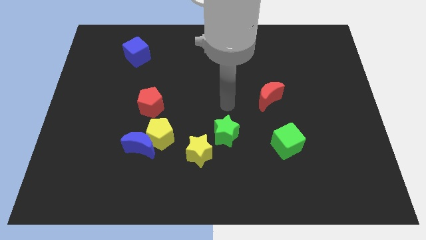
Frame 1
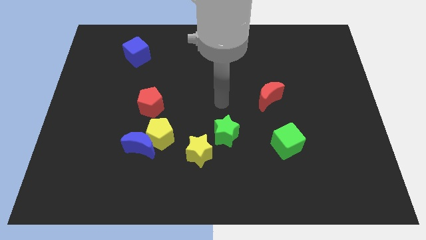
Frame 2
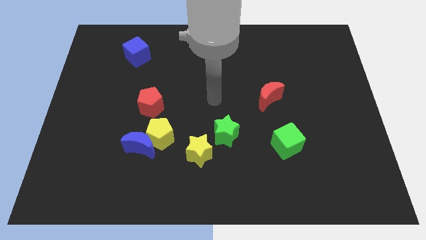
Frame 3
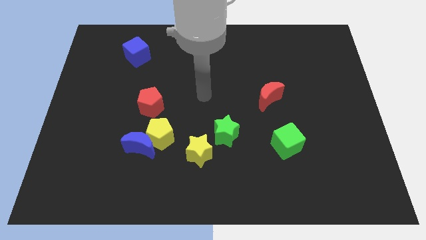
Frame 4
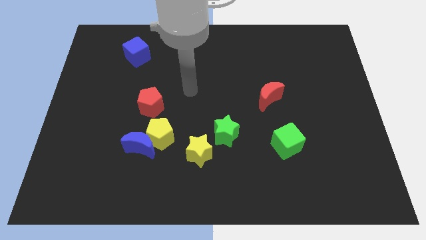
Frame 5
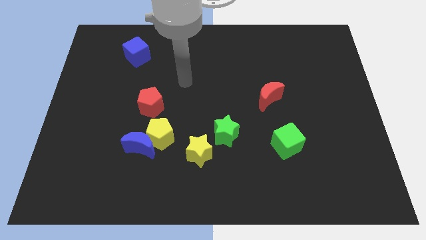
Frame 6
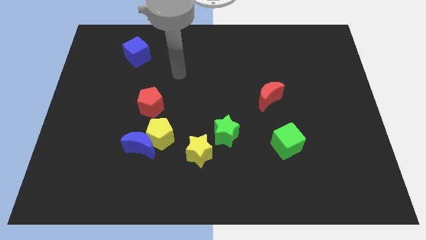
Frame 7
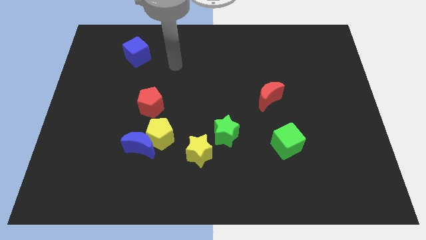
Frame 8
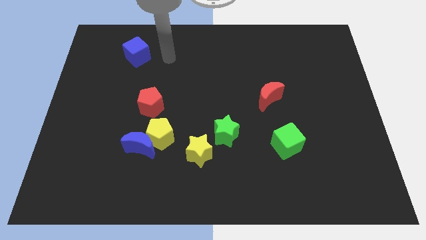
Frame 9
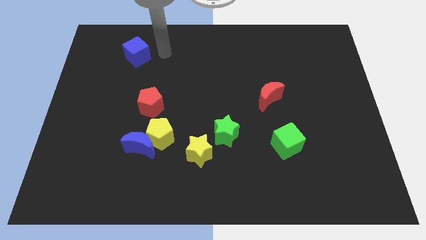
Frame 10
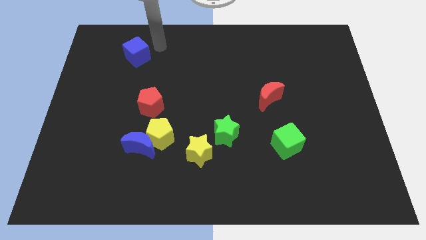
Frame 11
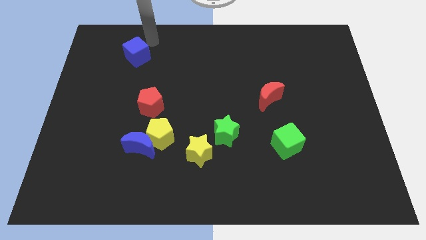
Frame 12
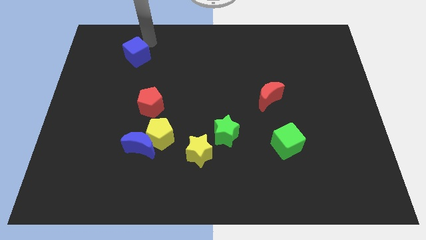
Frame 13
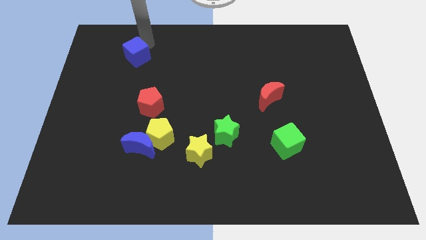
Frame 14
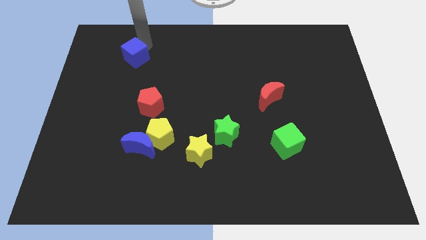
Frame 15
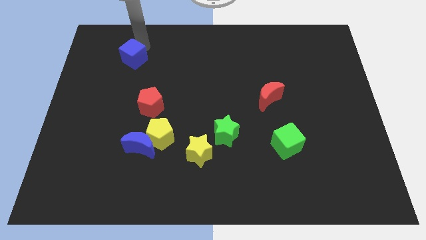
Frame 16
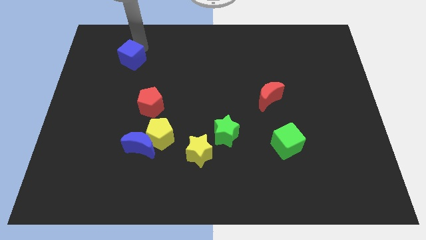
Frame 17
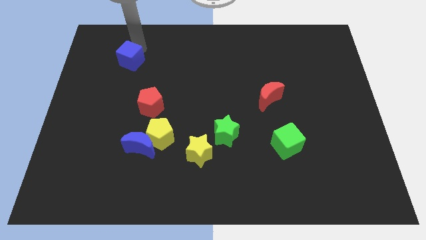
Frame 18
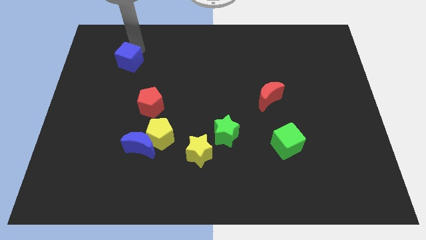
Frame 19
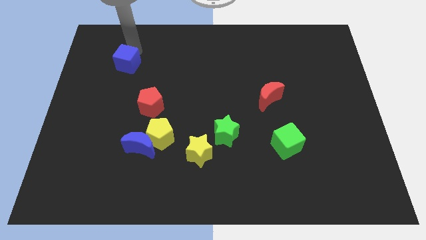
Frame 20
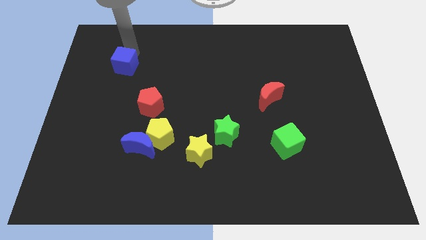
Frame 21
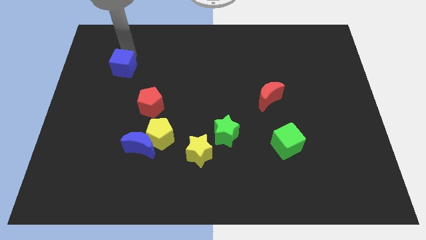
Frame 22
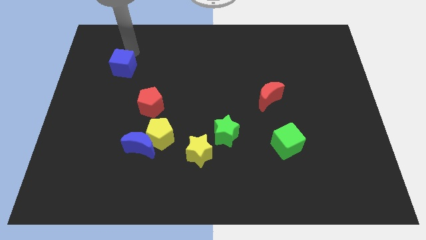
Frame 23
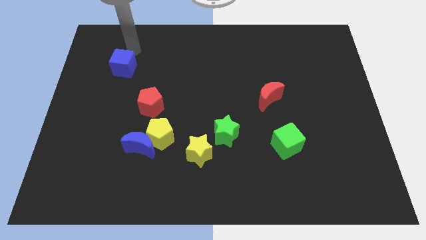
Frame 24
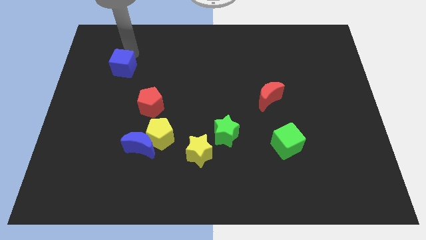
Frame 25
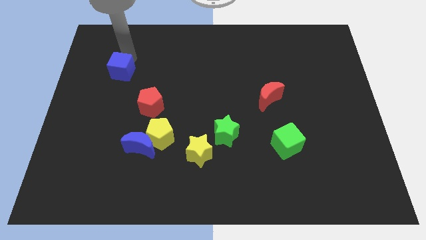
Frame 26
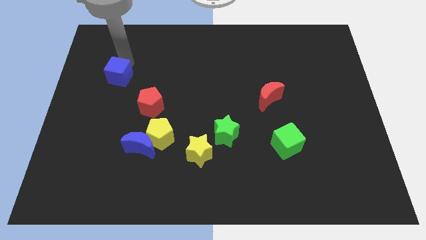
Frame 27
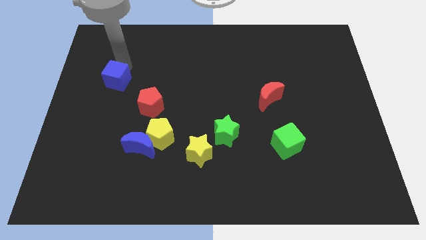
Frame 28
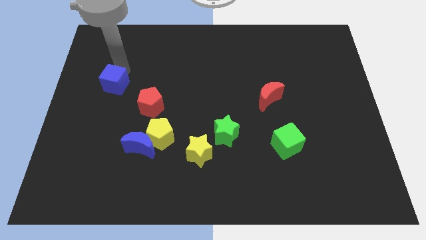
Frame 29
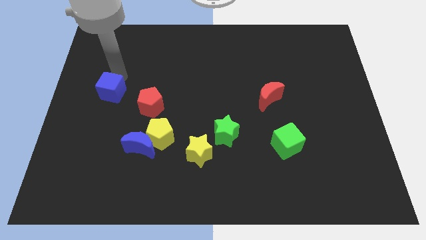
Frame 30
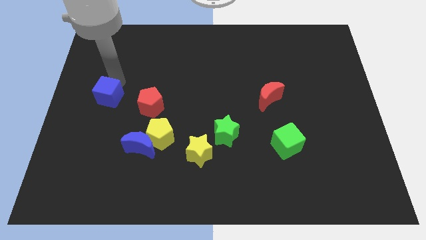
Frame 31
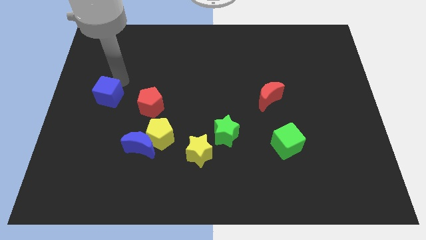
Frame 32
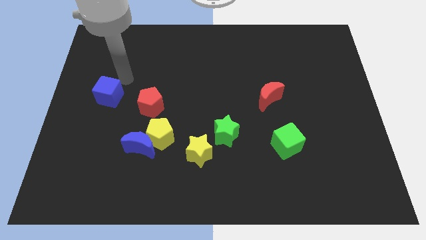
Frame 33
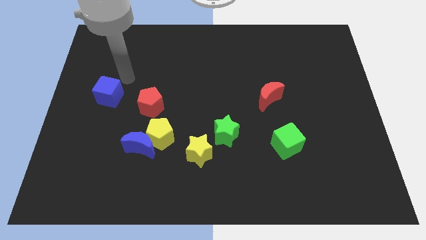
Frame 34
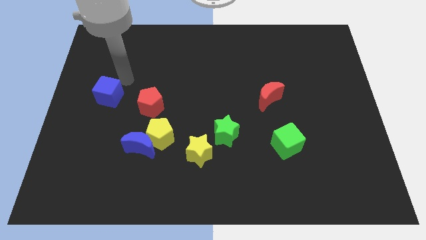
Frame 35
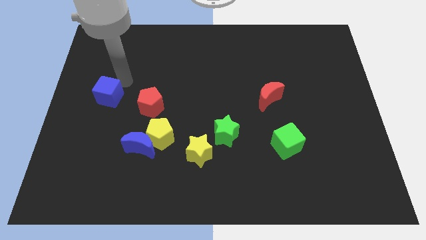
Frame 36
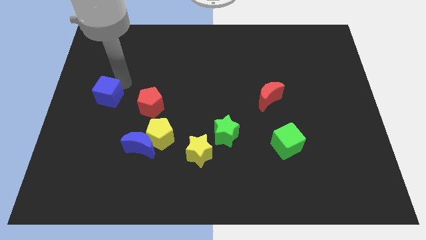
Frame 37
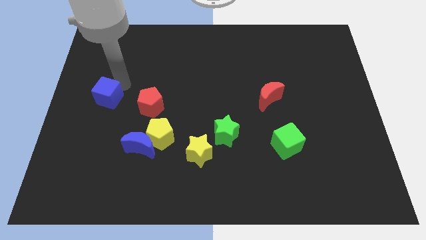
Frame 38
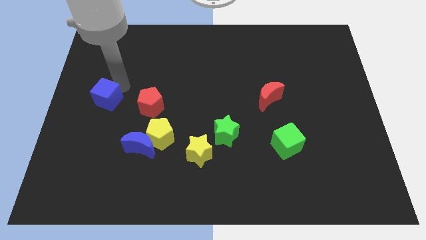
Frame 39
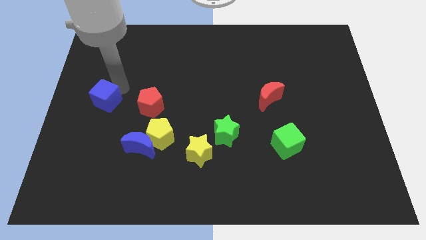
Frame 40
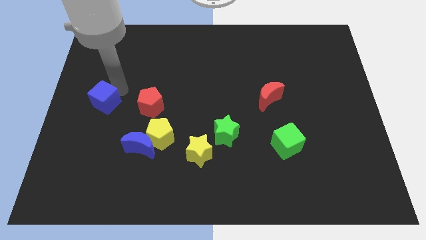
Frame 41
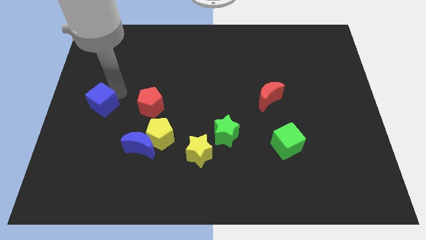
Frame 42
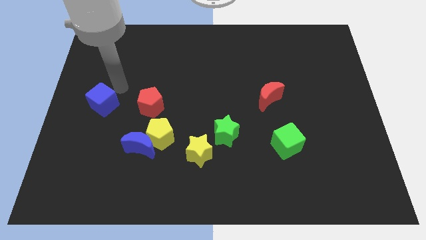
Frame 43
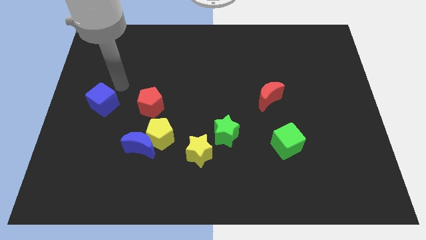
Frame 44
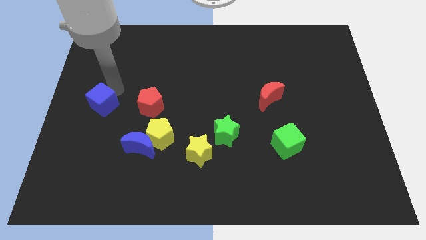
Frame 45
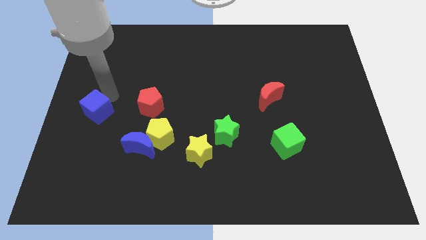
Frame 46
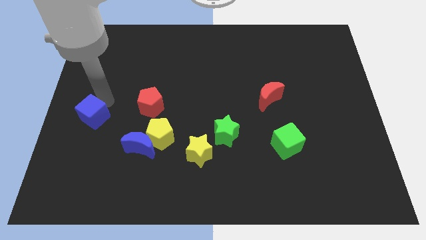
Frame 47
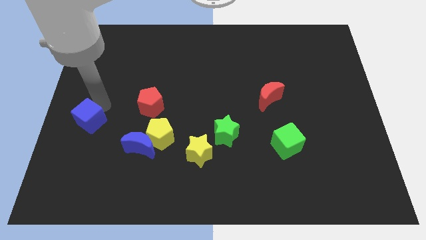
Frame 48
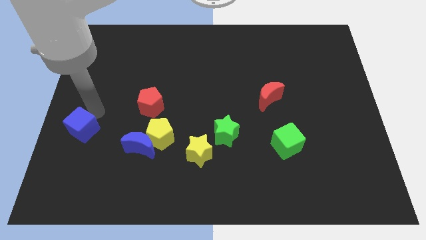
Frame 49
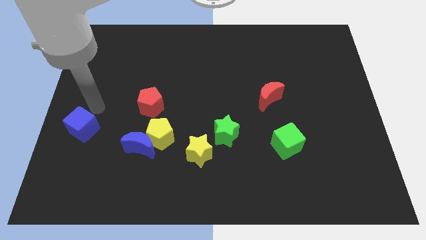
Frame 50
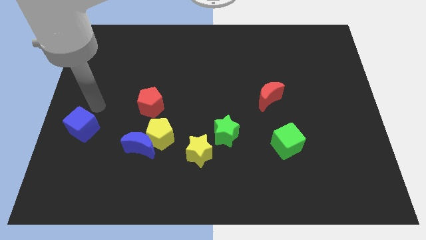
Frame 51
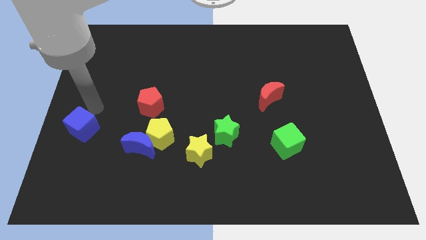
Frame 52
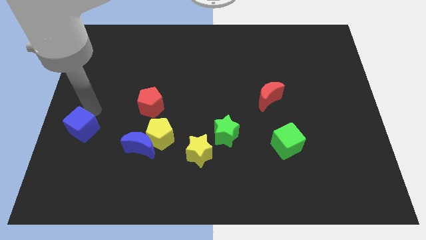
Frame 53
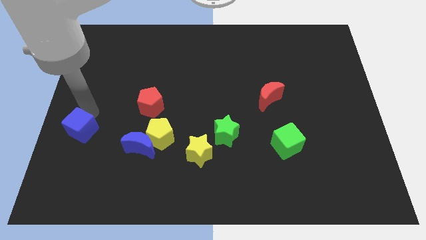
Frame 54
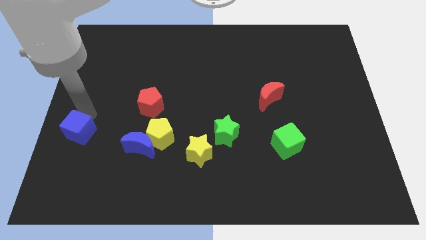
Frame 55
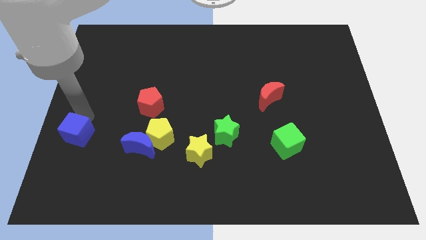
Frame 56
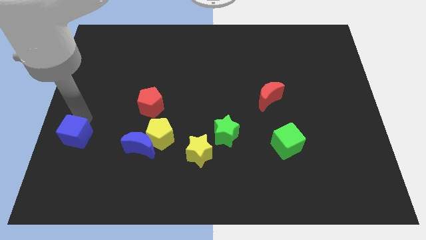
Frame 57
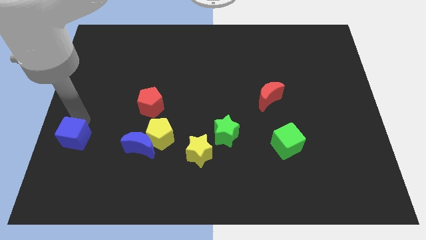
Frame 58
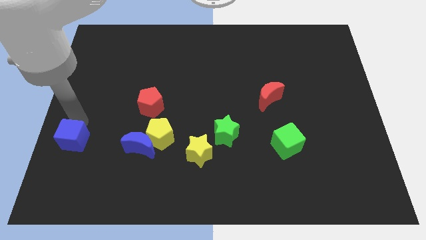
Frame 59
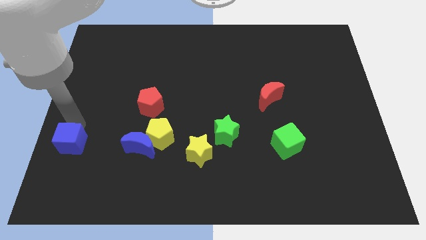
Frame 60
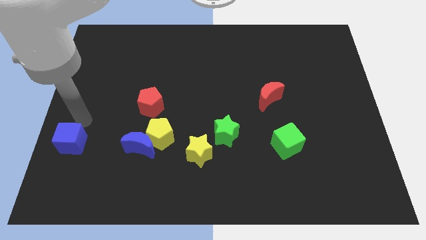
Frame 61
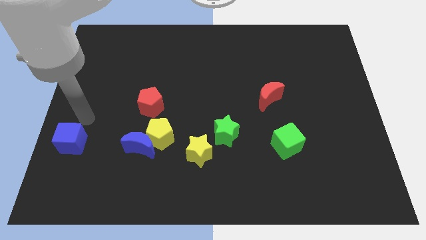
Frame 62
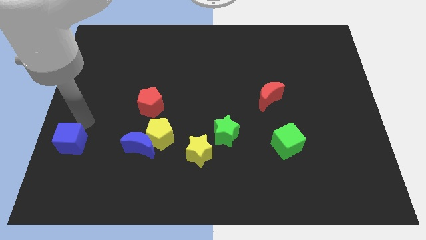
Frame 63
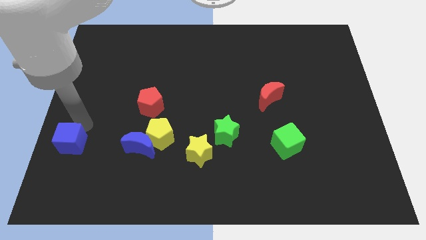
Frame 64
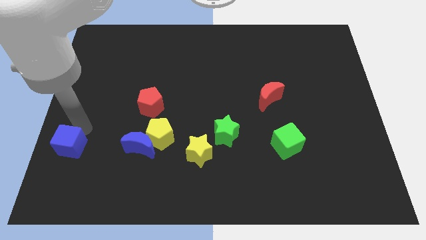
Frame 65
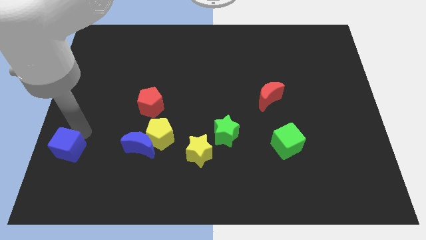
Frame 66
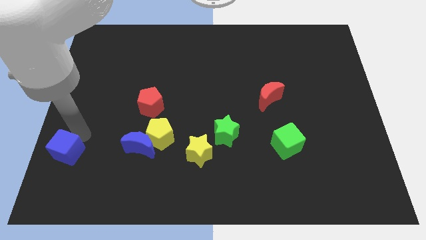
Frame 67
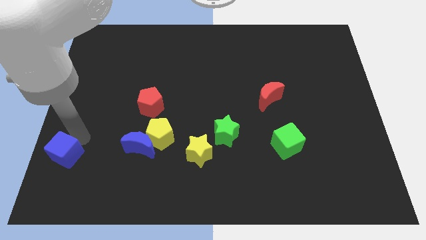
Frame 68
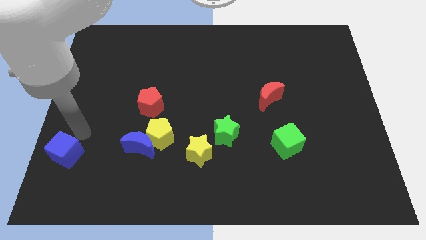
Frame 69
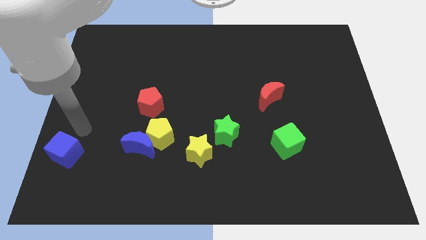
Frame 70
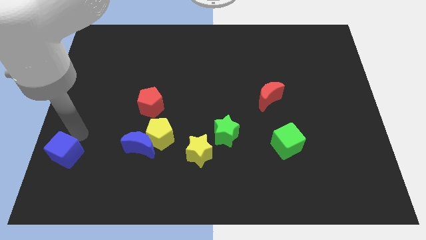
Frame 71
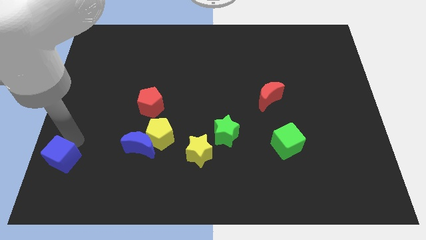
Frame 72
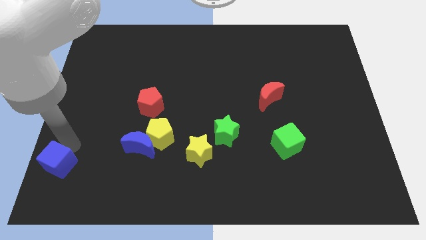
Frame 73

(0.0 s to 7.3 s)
move the blue cube to the bottom left of the board
